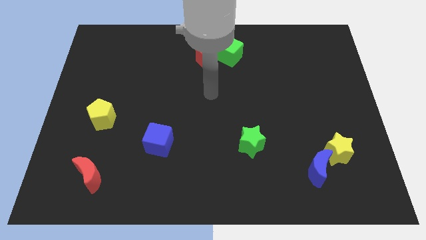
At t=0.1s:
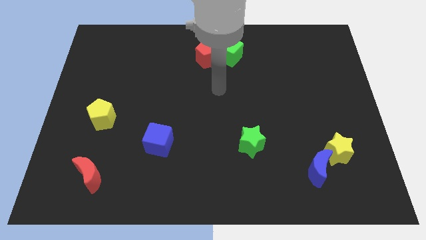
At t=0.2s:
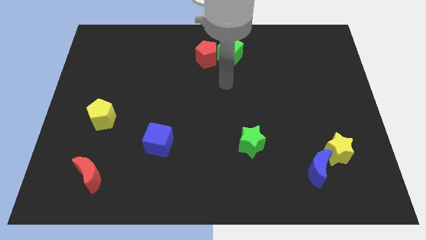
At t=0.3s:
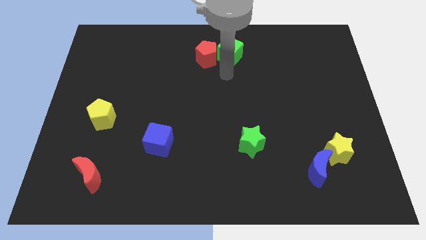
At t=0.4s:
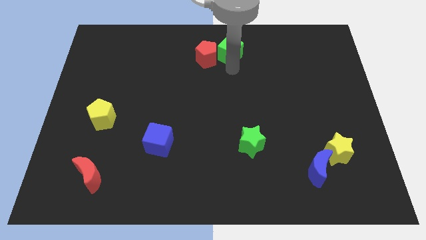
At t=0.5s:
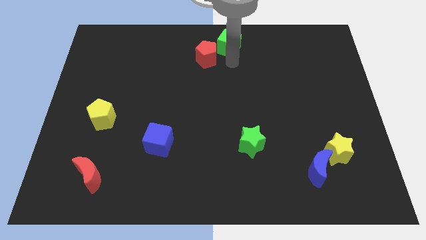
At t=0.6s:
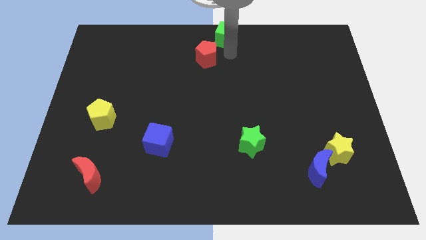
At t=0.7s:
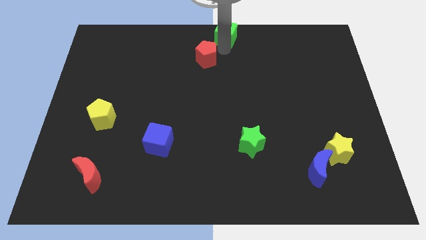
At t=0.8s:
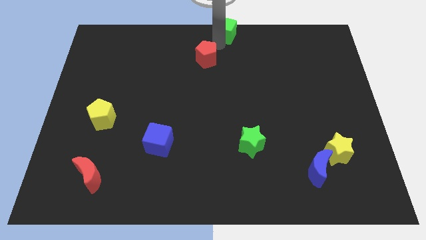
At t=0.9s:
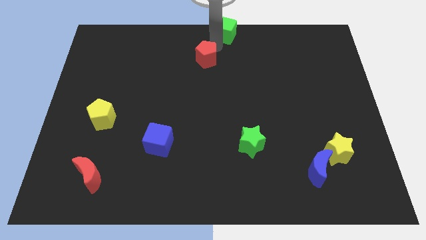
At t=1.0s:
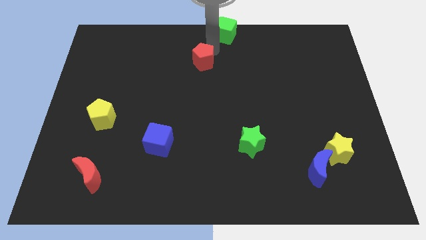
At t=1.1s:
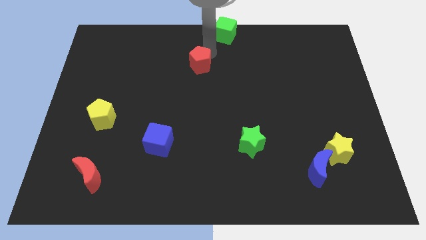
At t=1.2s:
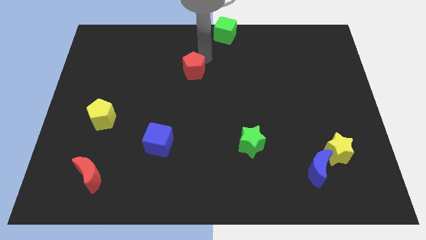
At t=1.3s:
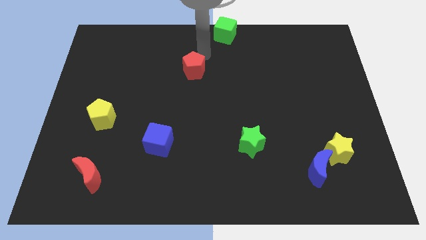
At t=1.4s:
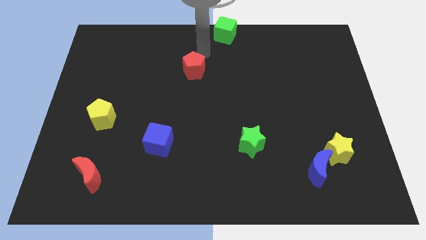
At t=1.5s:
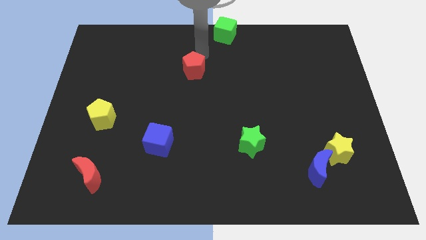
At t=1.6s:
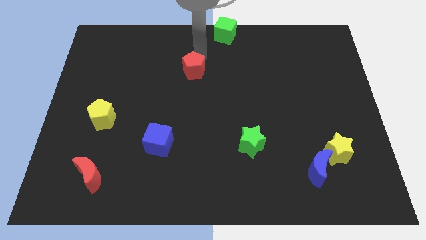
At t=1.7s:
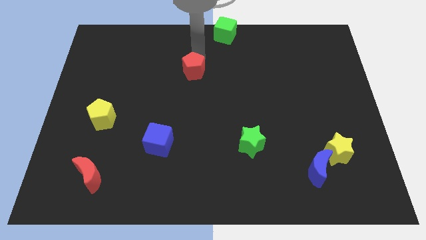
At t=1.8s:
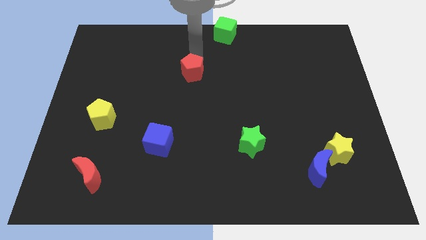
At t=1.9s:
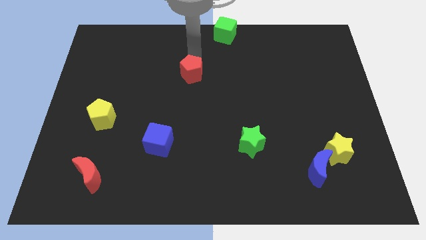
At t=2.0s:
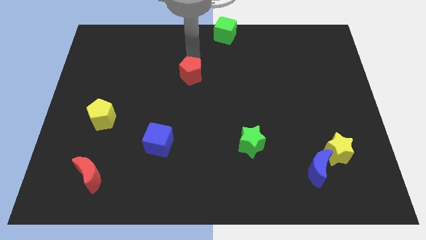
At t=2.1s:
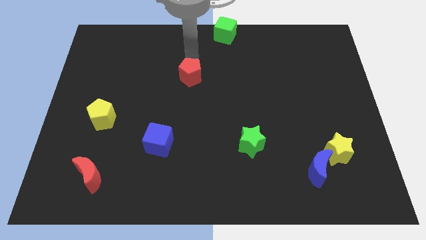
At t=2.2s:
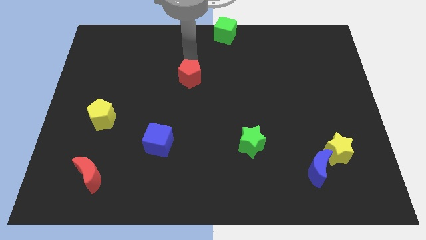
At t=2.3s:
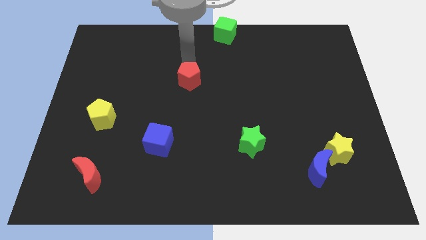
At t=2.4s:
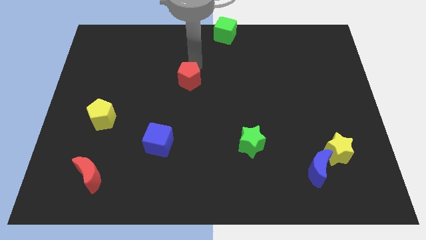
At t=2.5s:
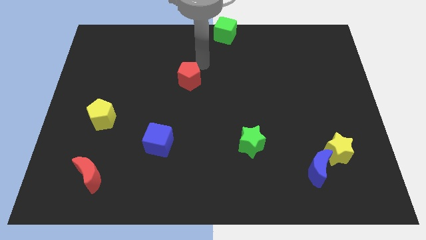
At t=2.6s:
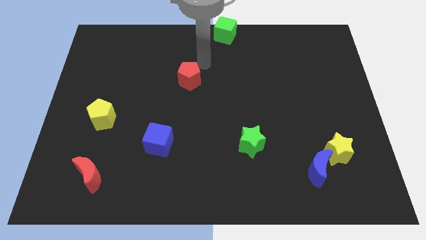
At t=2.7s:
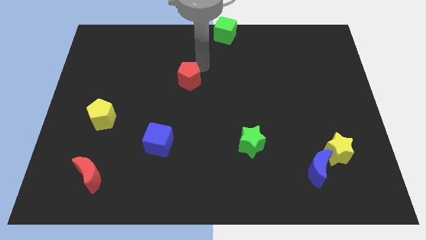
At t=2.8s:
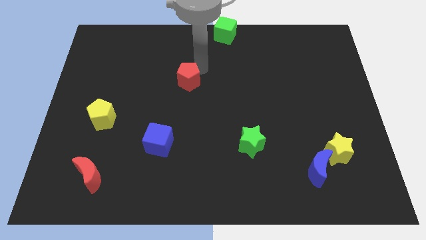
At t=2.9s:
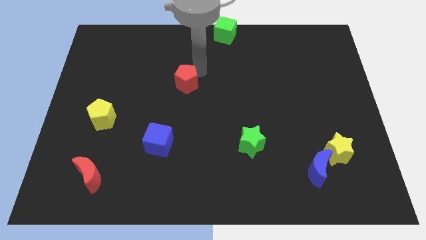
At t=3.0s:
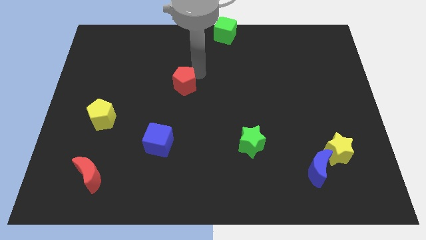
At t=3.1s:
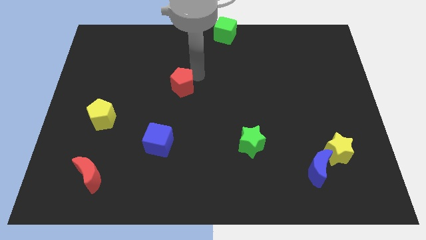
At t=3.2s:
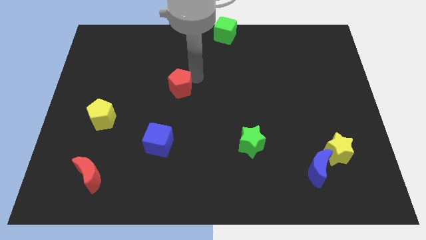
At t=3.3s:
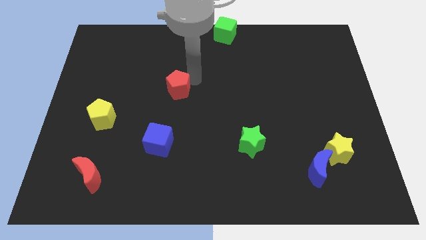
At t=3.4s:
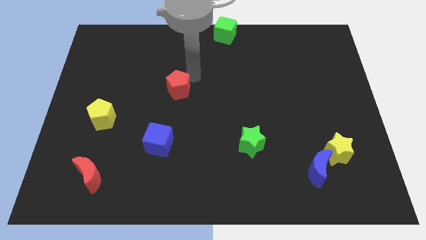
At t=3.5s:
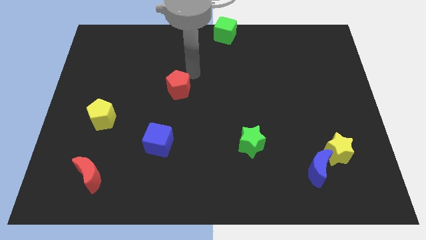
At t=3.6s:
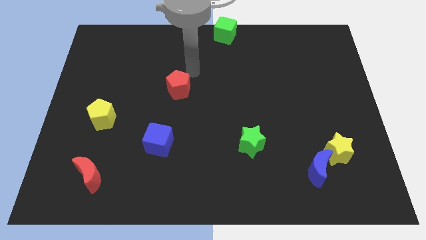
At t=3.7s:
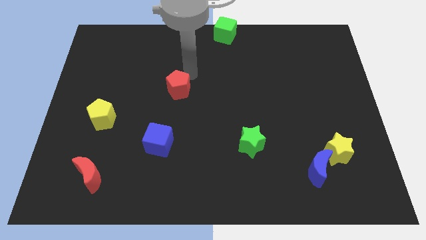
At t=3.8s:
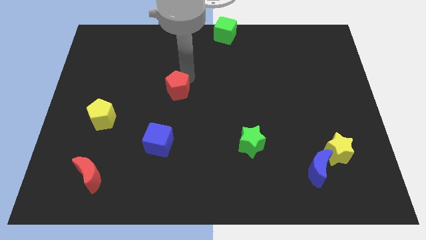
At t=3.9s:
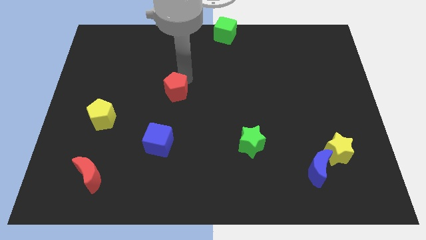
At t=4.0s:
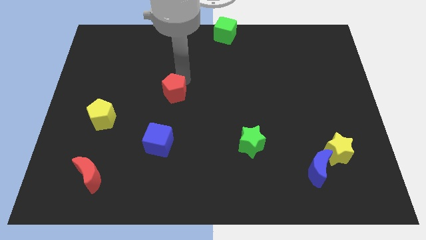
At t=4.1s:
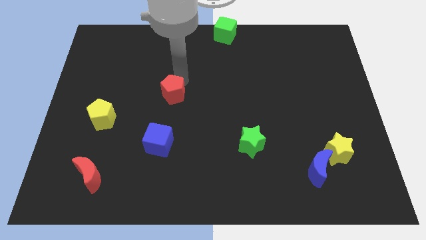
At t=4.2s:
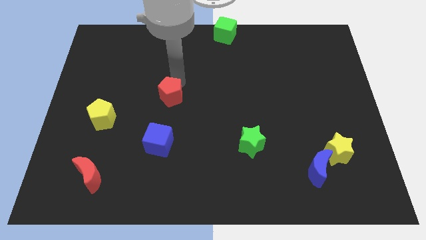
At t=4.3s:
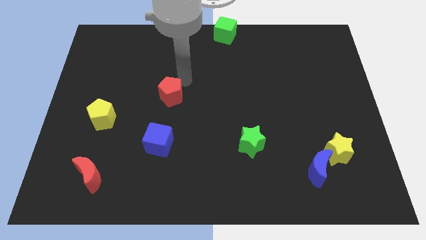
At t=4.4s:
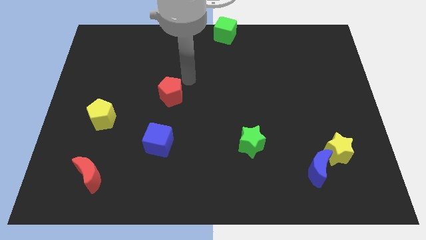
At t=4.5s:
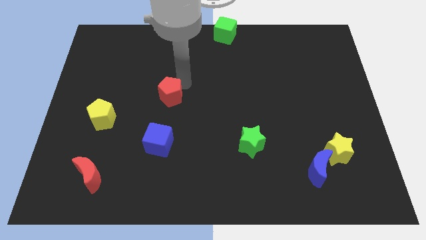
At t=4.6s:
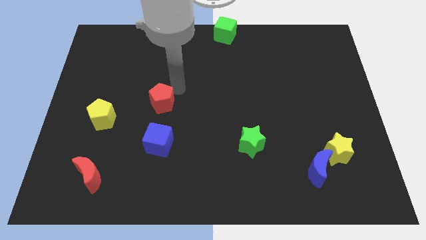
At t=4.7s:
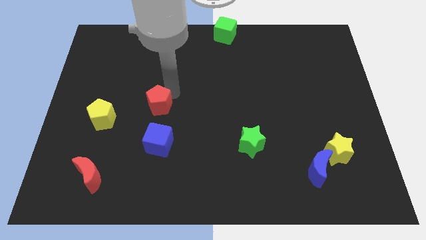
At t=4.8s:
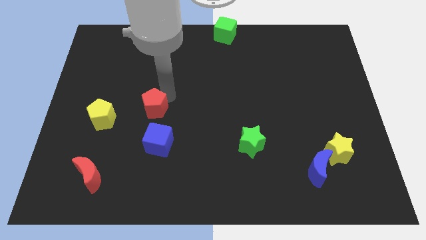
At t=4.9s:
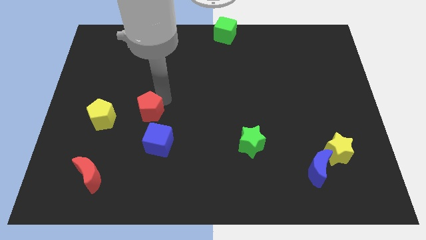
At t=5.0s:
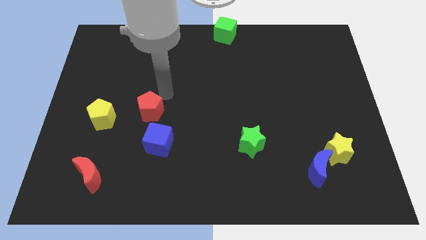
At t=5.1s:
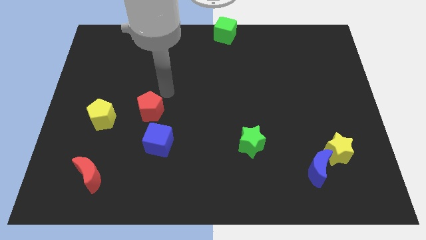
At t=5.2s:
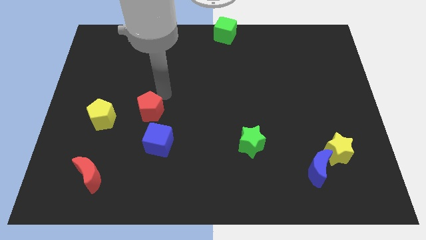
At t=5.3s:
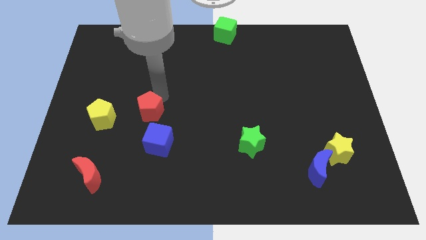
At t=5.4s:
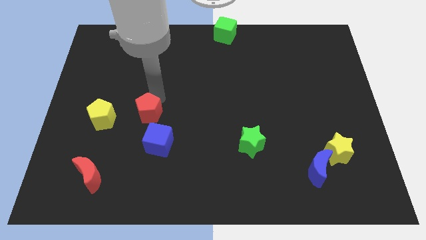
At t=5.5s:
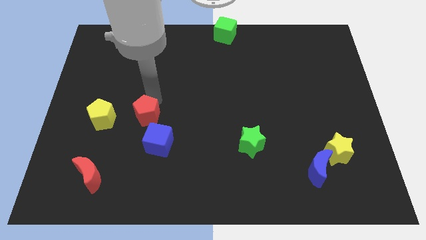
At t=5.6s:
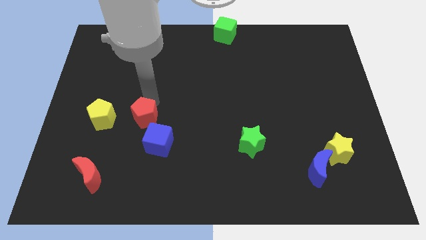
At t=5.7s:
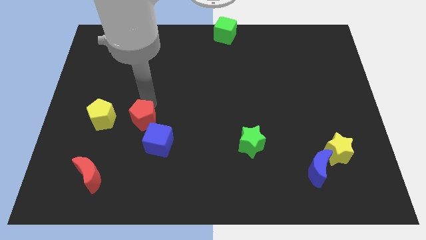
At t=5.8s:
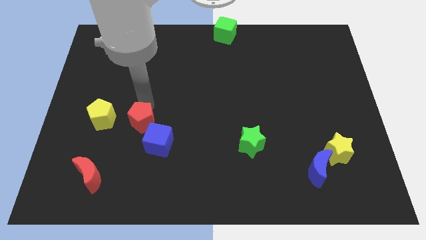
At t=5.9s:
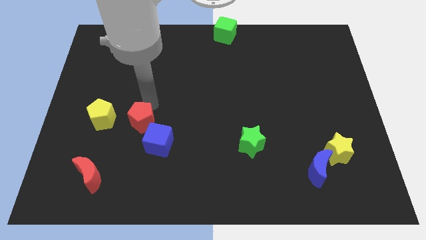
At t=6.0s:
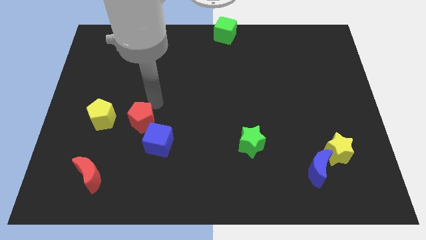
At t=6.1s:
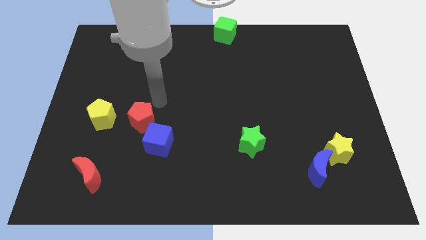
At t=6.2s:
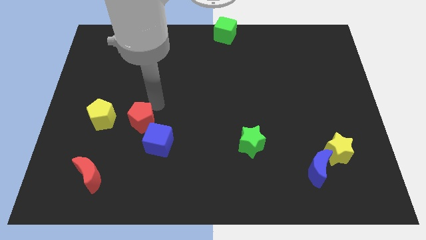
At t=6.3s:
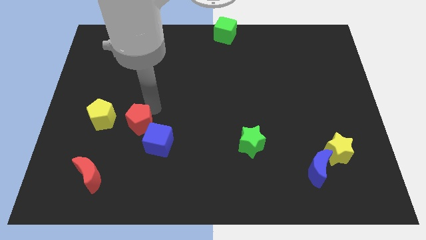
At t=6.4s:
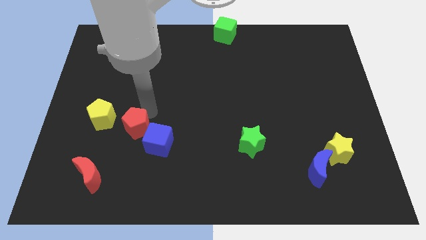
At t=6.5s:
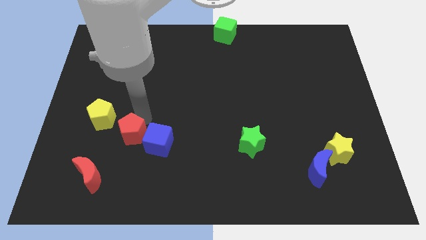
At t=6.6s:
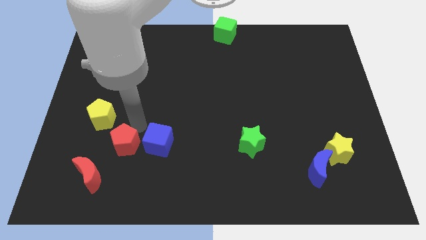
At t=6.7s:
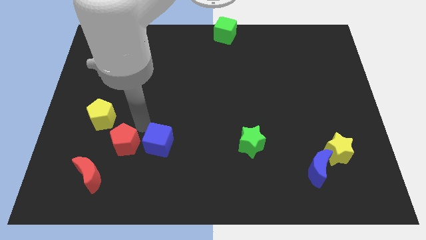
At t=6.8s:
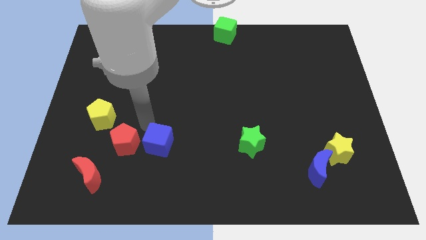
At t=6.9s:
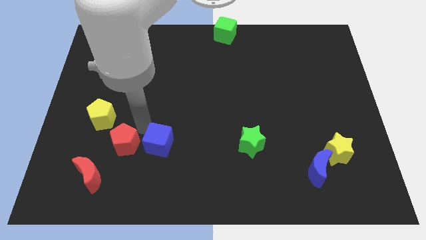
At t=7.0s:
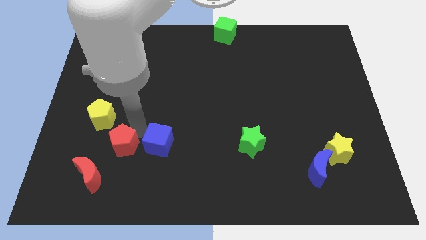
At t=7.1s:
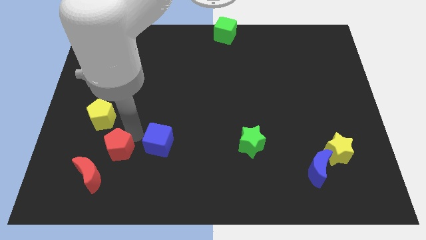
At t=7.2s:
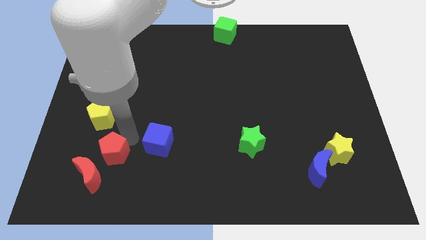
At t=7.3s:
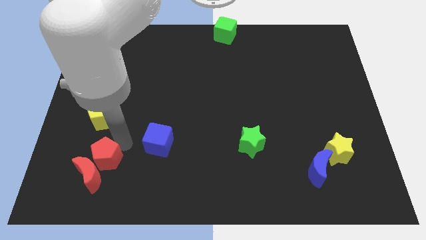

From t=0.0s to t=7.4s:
slide the red pentagon towards the red moon
